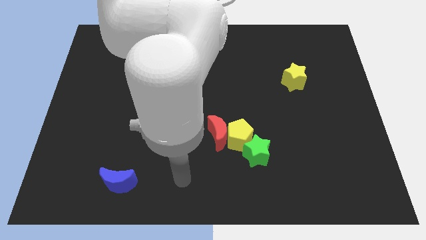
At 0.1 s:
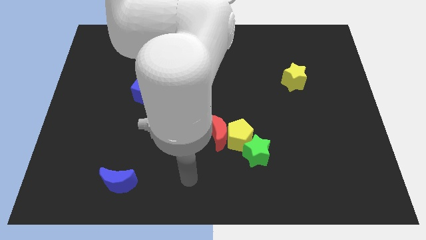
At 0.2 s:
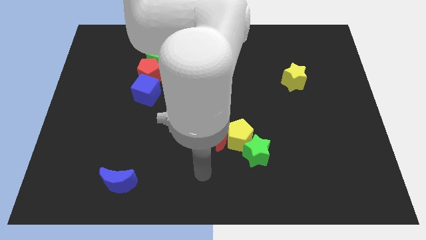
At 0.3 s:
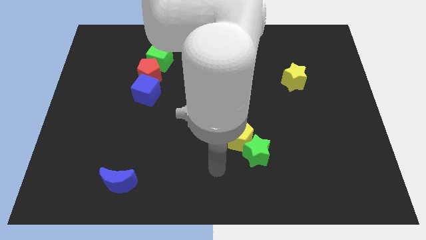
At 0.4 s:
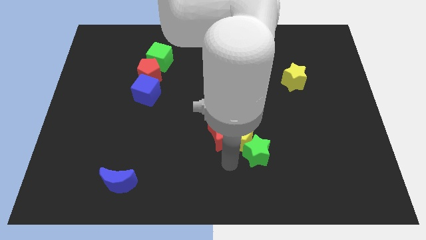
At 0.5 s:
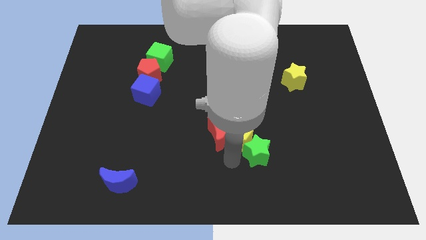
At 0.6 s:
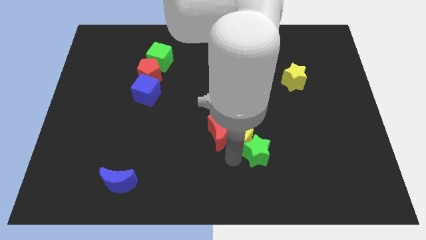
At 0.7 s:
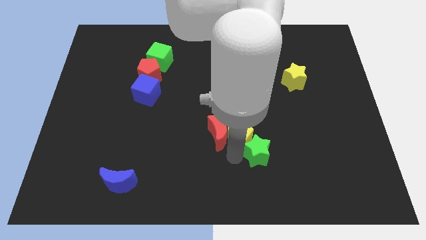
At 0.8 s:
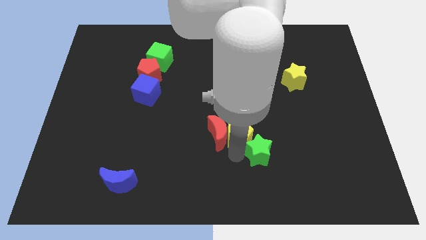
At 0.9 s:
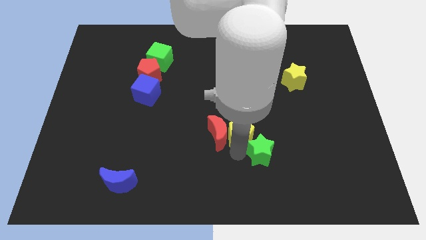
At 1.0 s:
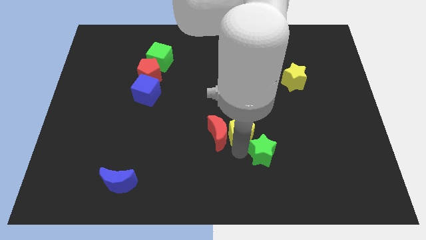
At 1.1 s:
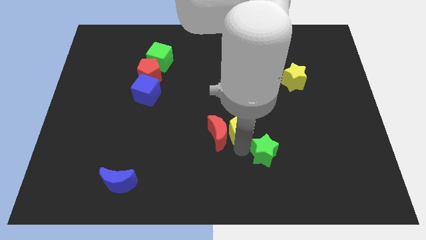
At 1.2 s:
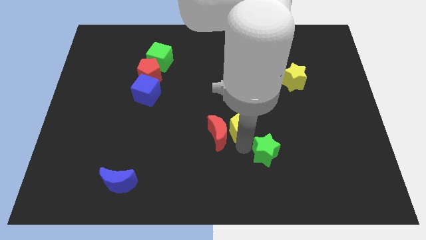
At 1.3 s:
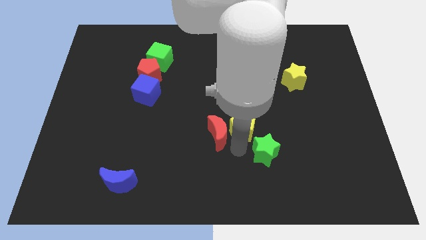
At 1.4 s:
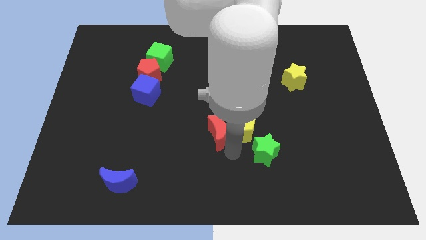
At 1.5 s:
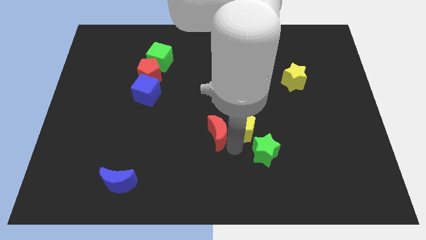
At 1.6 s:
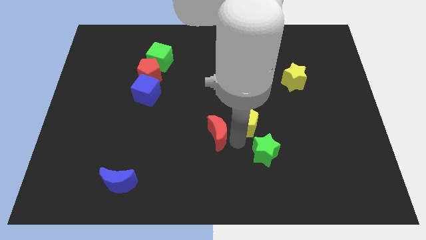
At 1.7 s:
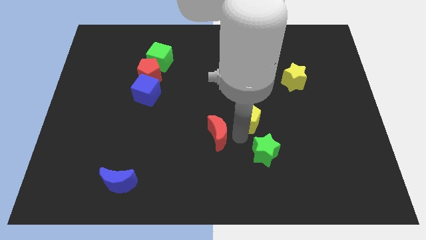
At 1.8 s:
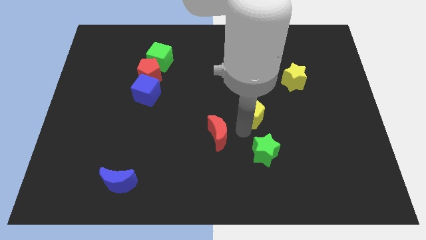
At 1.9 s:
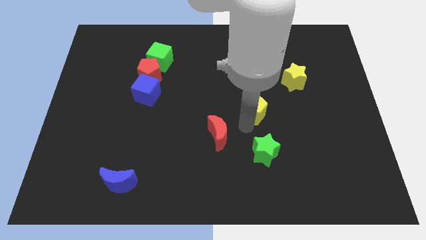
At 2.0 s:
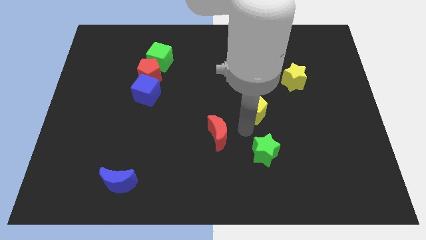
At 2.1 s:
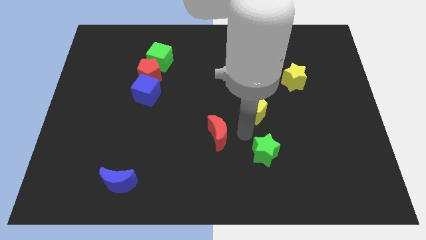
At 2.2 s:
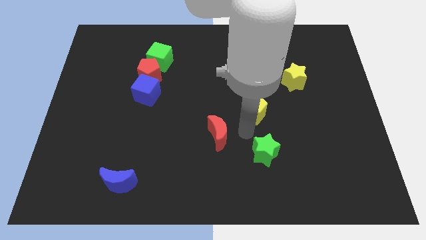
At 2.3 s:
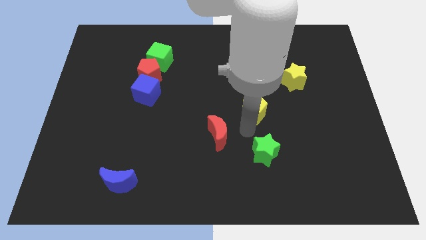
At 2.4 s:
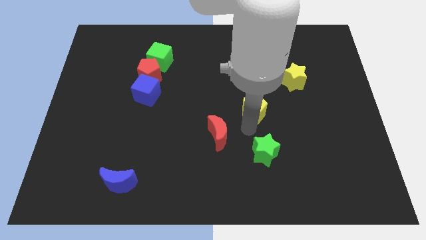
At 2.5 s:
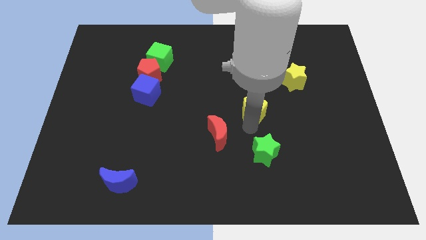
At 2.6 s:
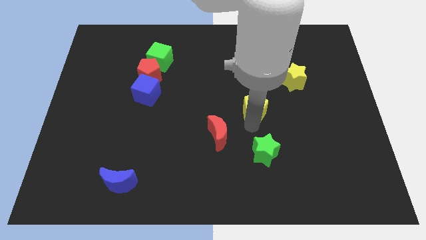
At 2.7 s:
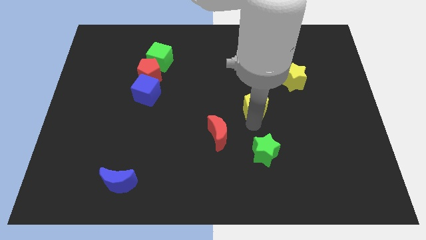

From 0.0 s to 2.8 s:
pull the yellow pentagon apart from the red moon and green star

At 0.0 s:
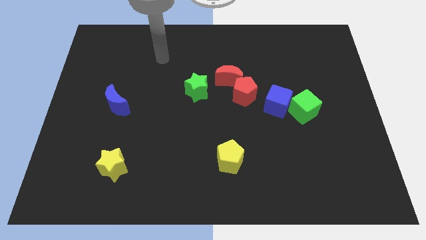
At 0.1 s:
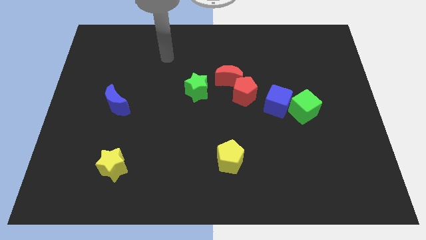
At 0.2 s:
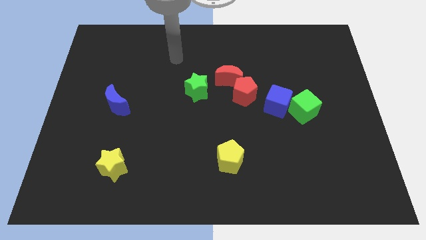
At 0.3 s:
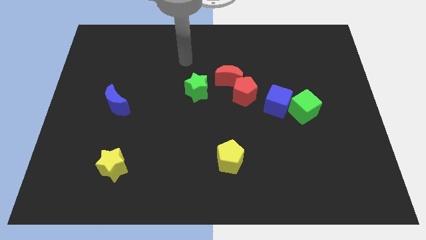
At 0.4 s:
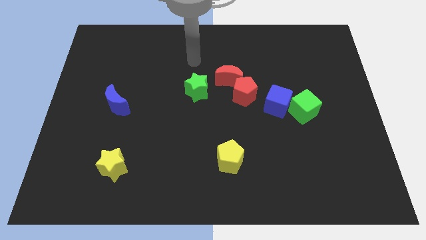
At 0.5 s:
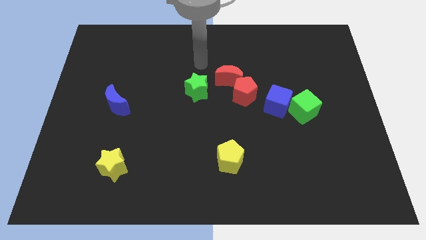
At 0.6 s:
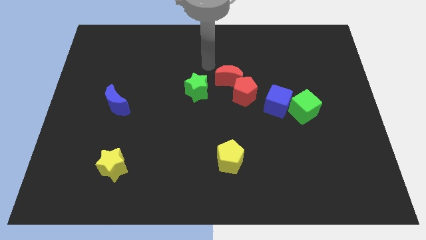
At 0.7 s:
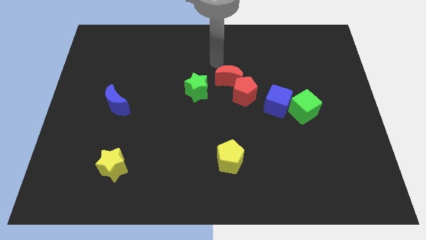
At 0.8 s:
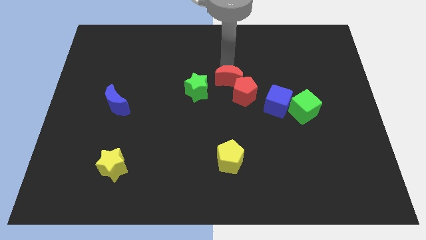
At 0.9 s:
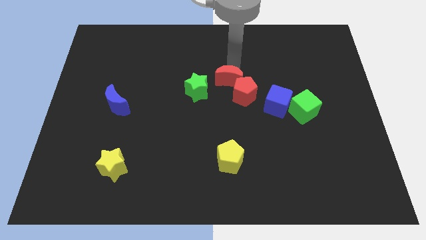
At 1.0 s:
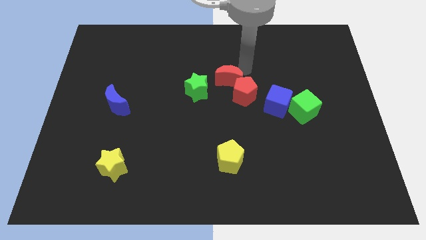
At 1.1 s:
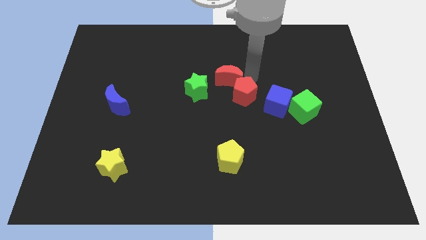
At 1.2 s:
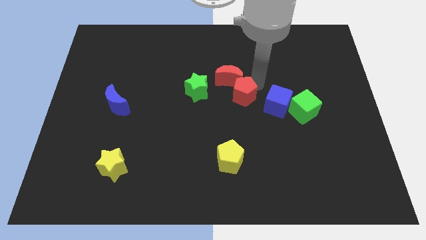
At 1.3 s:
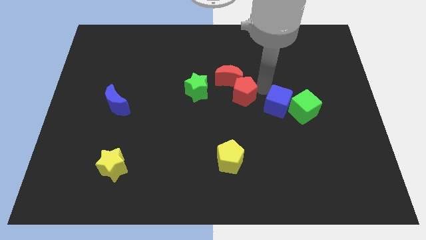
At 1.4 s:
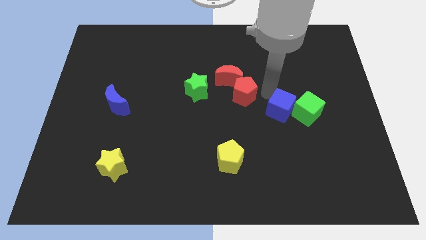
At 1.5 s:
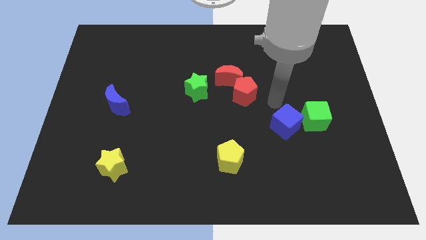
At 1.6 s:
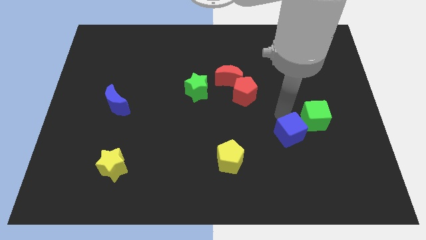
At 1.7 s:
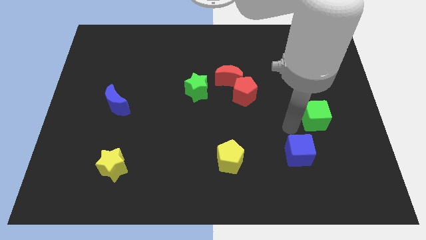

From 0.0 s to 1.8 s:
separate the green cube from the blue cube

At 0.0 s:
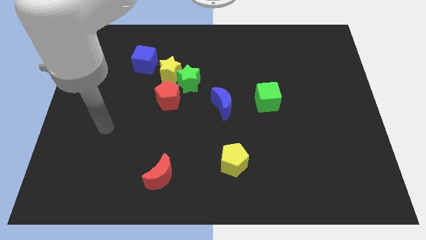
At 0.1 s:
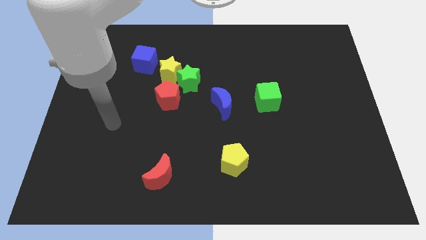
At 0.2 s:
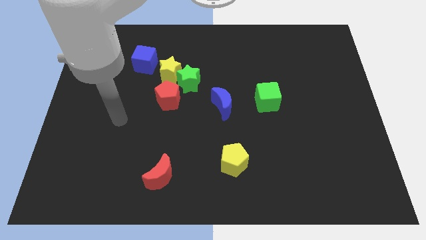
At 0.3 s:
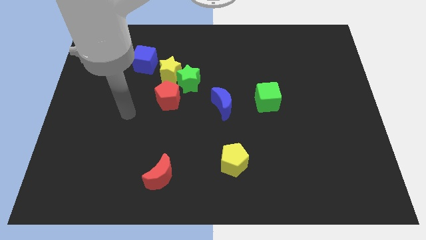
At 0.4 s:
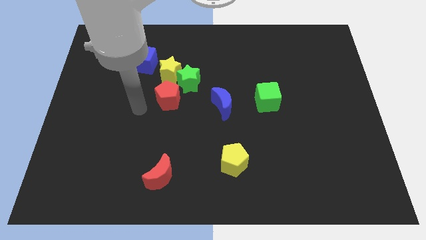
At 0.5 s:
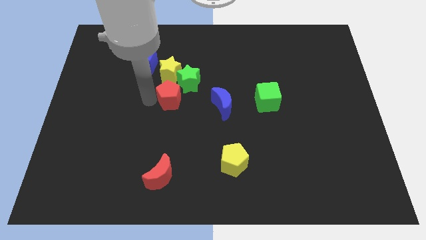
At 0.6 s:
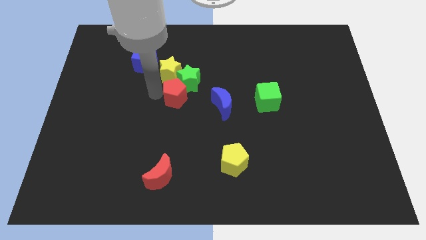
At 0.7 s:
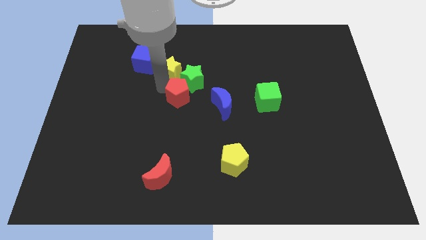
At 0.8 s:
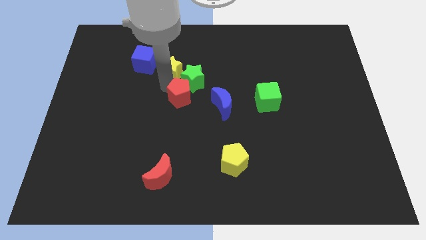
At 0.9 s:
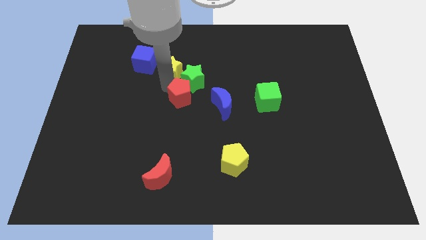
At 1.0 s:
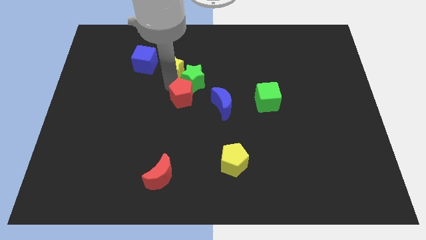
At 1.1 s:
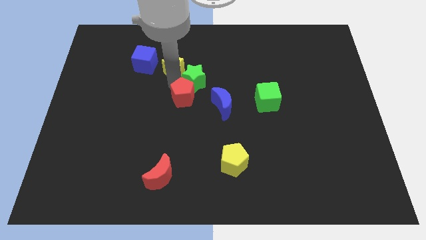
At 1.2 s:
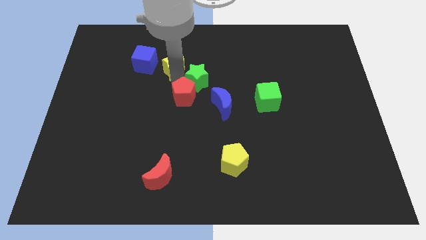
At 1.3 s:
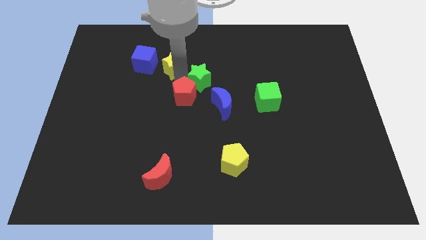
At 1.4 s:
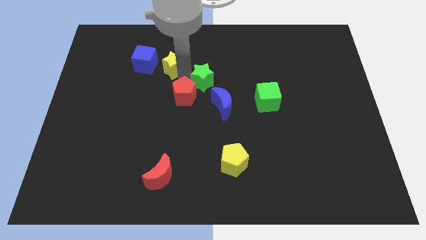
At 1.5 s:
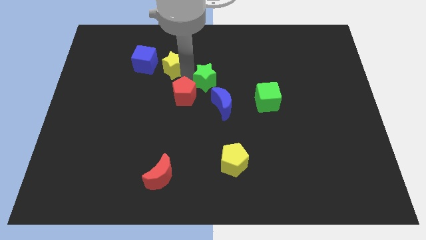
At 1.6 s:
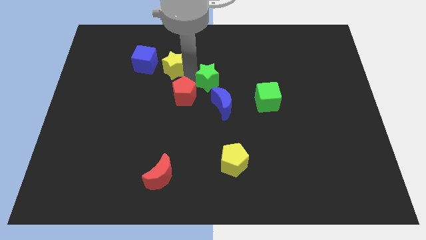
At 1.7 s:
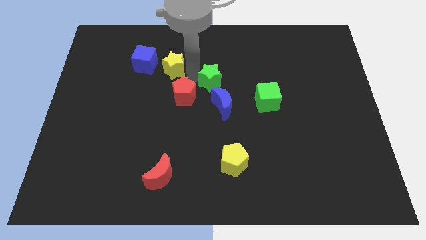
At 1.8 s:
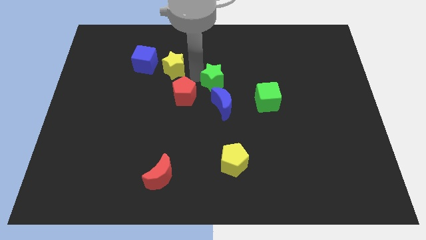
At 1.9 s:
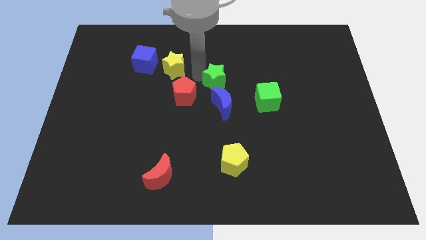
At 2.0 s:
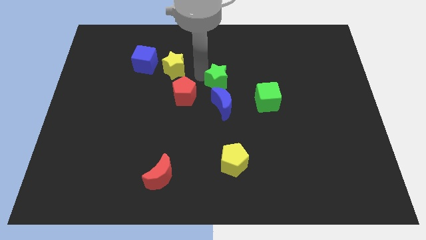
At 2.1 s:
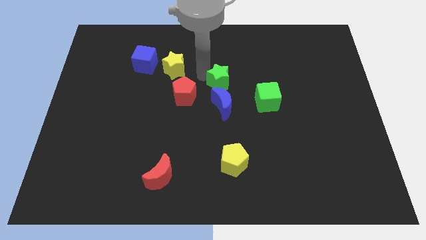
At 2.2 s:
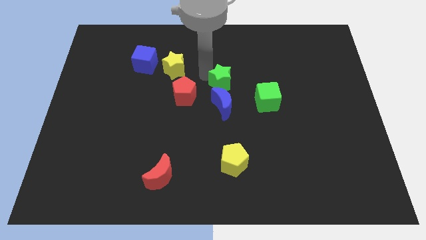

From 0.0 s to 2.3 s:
separate the green star from the yellow star and red pentagon

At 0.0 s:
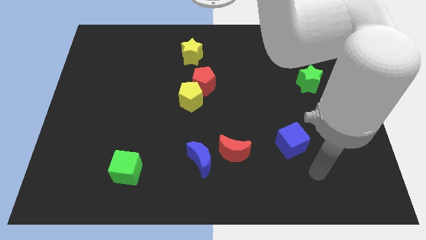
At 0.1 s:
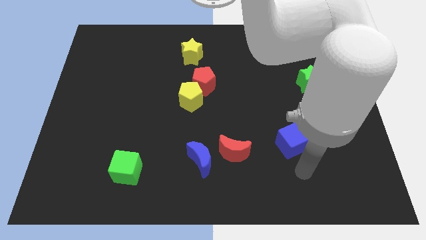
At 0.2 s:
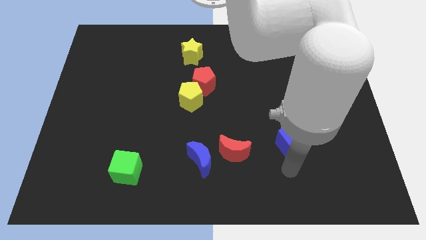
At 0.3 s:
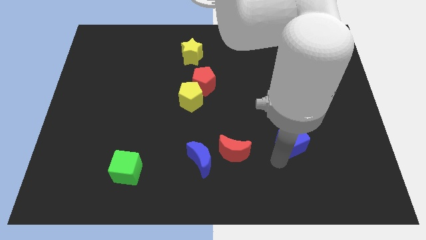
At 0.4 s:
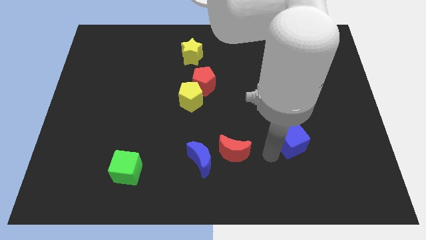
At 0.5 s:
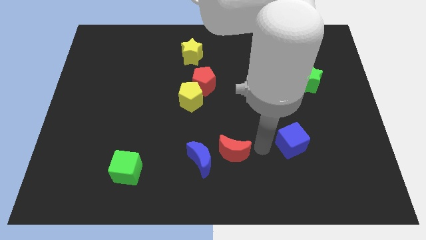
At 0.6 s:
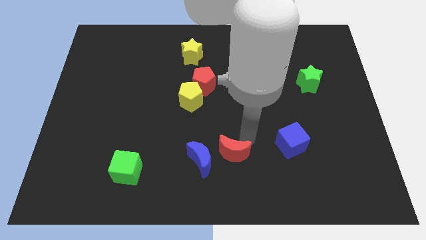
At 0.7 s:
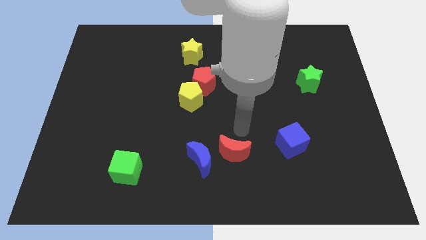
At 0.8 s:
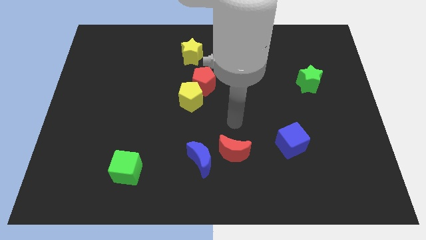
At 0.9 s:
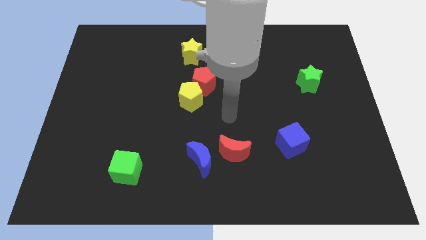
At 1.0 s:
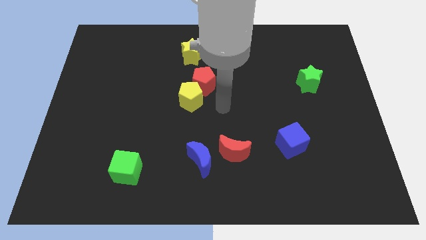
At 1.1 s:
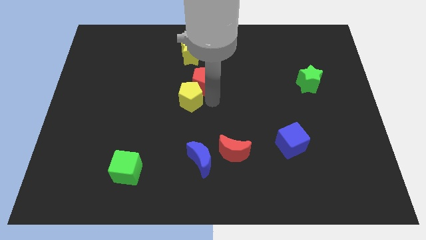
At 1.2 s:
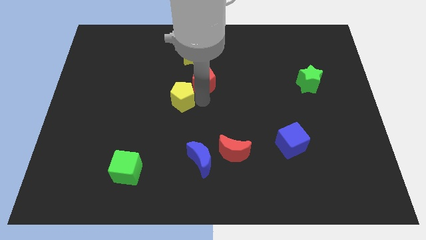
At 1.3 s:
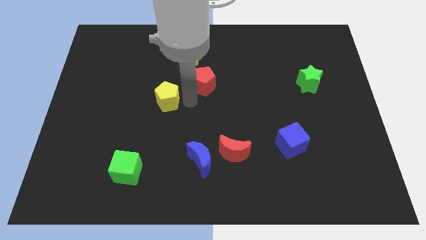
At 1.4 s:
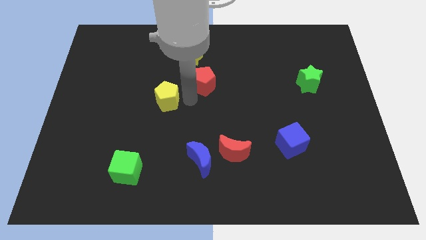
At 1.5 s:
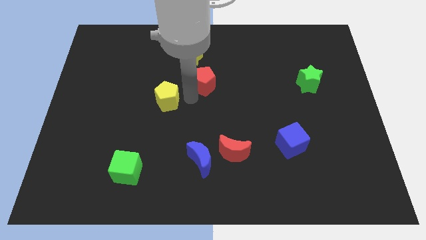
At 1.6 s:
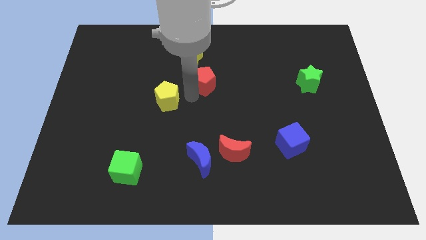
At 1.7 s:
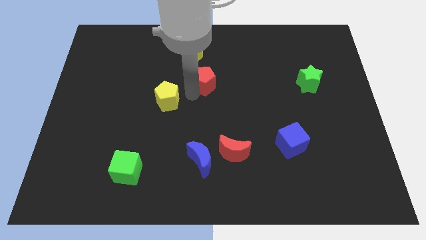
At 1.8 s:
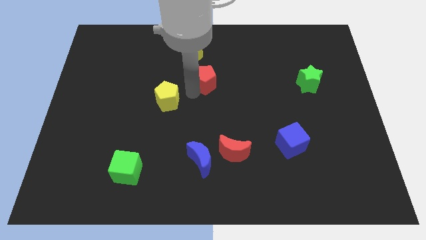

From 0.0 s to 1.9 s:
move the red pentagon away from the yellow pentagon

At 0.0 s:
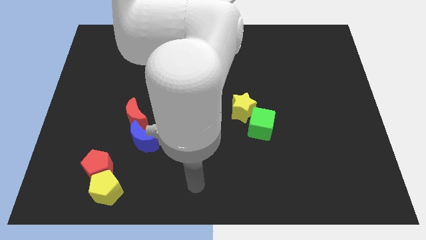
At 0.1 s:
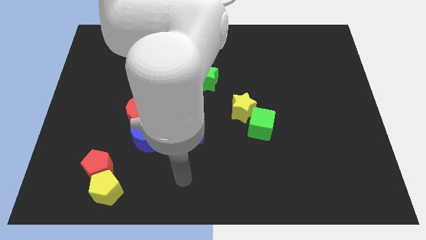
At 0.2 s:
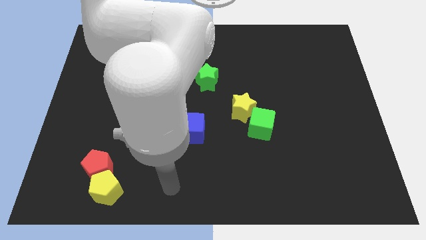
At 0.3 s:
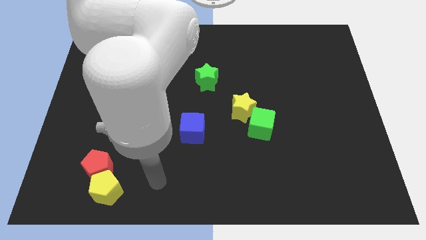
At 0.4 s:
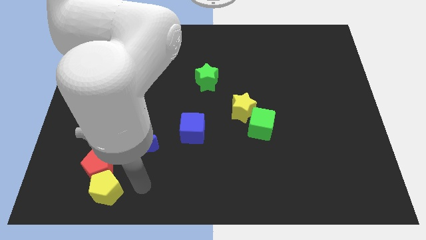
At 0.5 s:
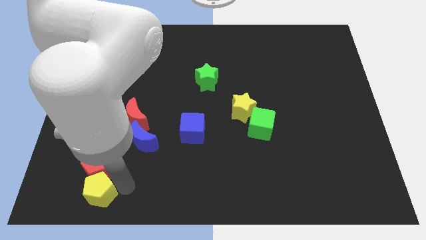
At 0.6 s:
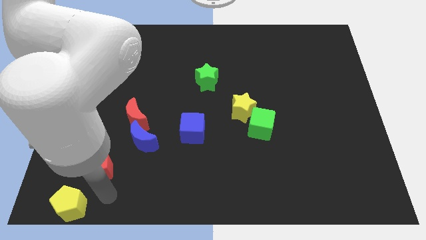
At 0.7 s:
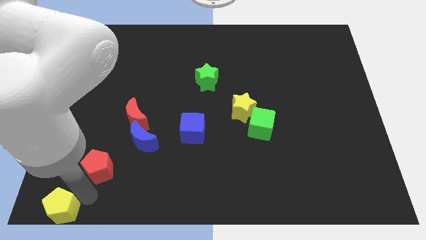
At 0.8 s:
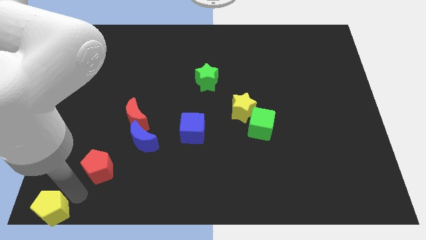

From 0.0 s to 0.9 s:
pull the red pentagon apart from the yellow pentagon
